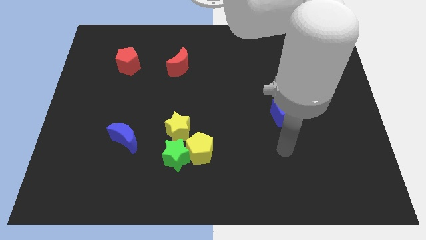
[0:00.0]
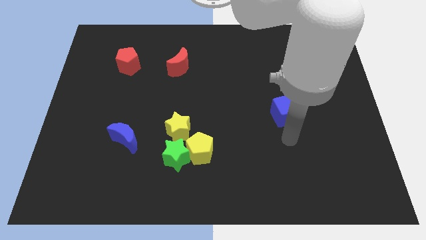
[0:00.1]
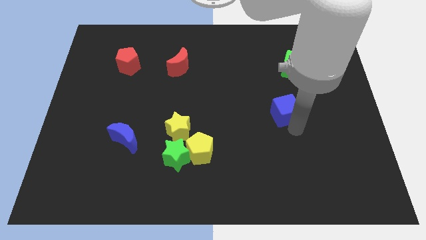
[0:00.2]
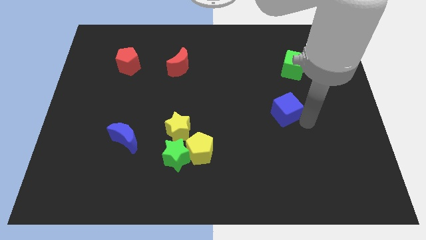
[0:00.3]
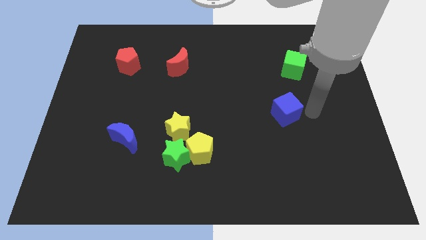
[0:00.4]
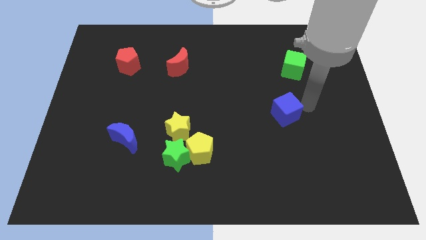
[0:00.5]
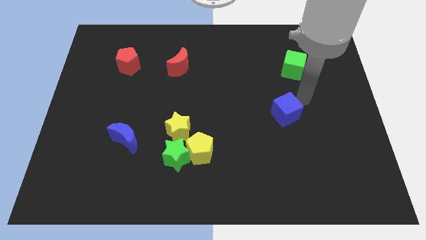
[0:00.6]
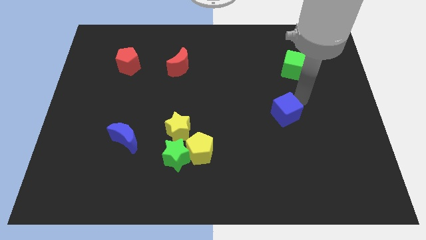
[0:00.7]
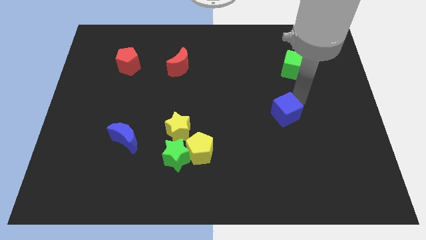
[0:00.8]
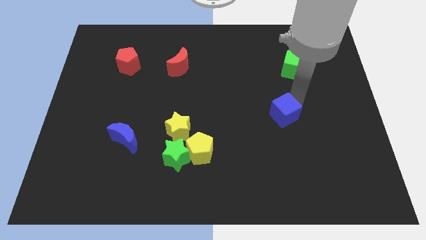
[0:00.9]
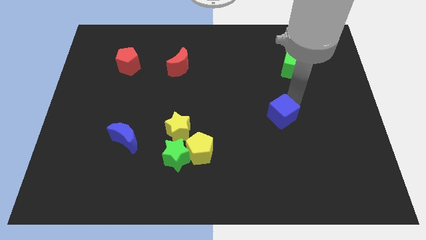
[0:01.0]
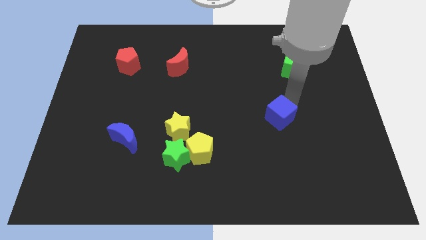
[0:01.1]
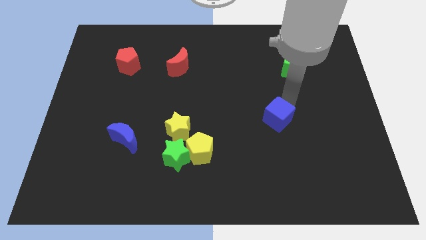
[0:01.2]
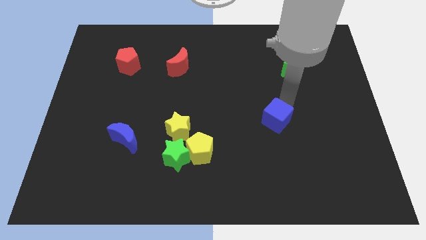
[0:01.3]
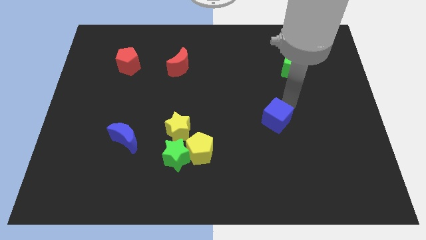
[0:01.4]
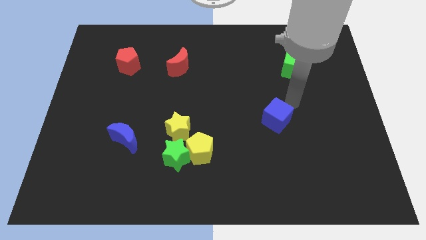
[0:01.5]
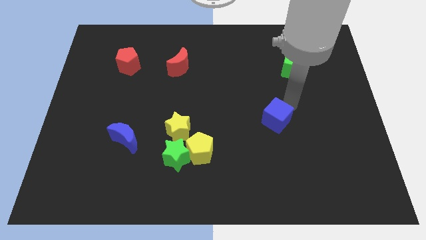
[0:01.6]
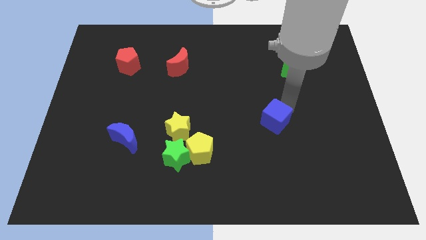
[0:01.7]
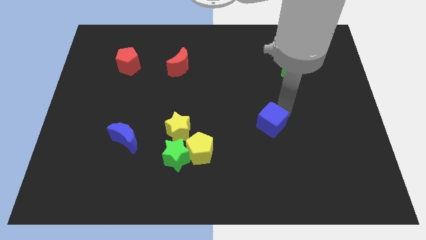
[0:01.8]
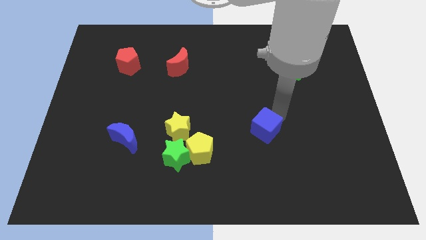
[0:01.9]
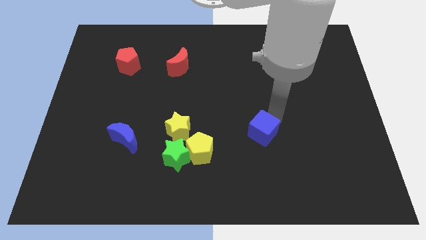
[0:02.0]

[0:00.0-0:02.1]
slightly move the blue cube downwards and then left

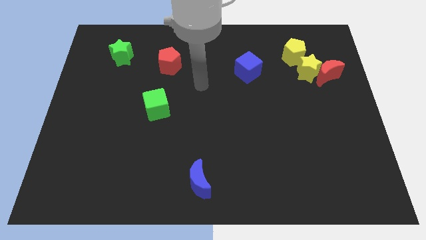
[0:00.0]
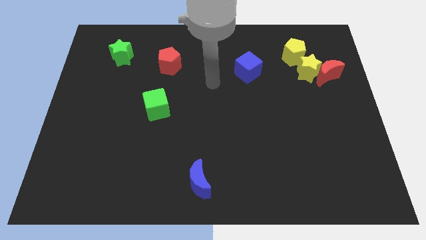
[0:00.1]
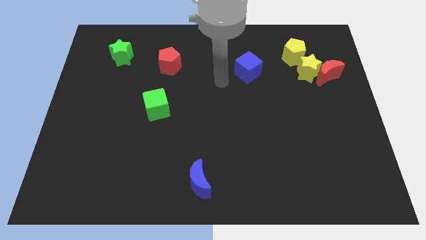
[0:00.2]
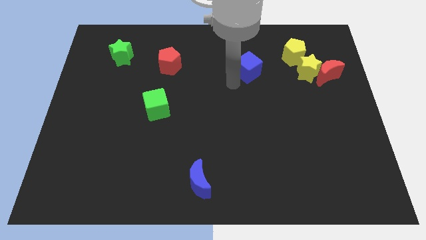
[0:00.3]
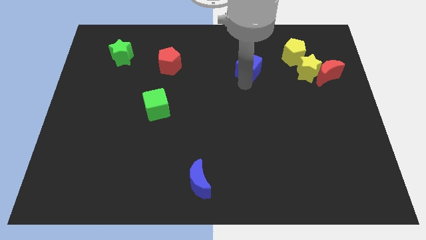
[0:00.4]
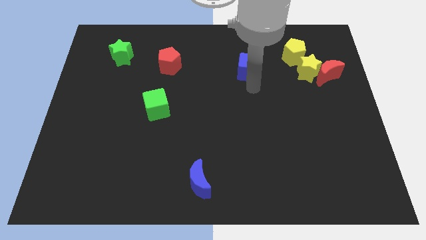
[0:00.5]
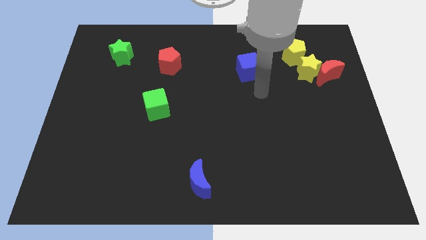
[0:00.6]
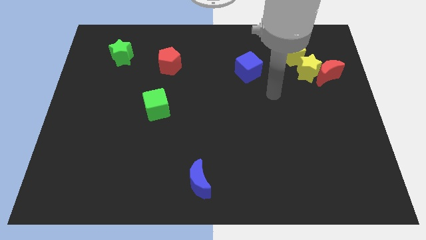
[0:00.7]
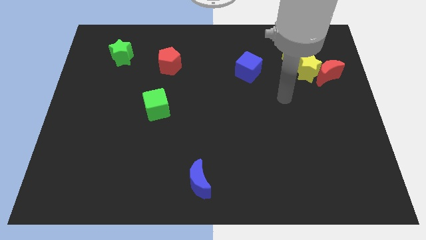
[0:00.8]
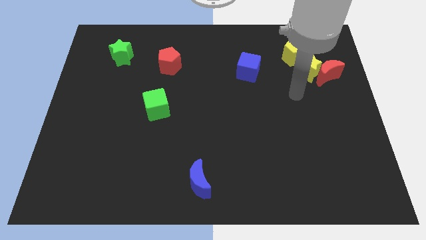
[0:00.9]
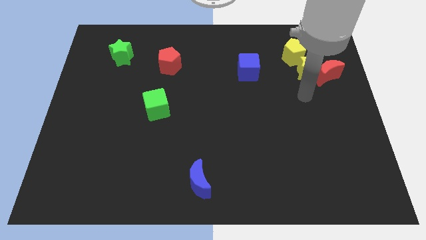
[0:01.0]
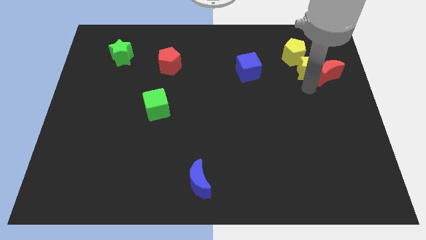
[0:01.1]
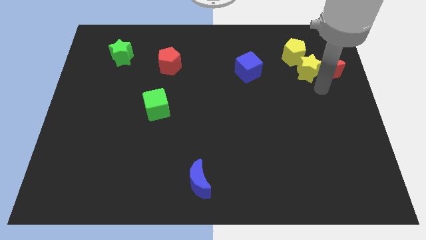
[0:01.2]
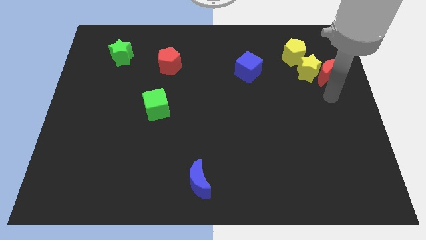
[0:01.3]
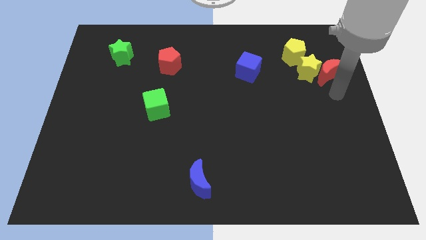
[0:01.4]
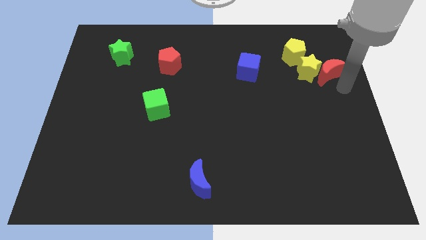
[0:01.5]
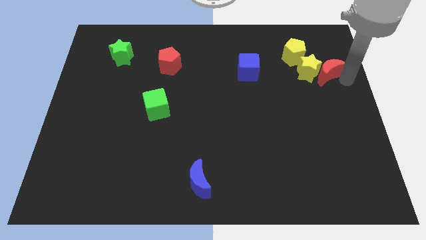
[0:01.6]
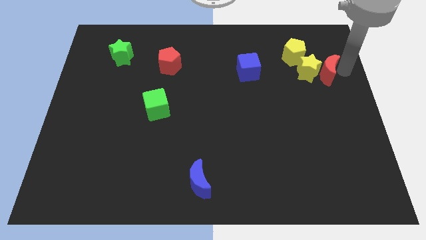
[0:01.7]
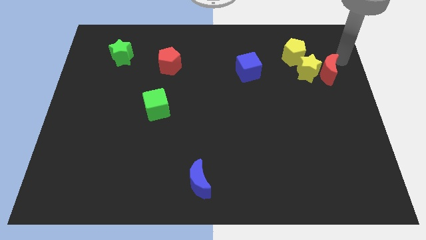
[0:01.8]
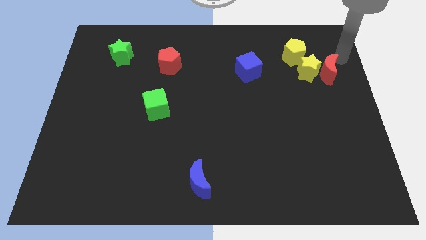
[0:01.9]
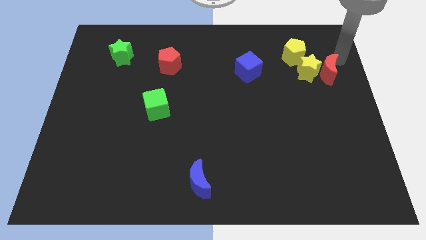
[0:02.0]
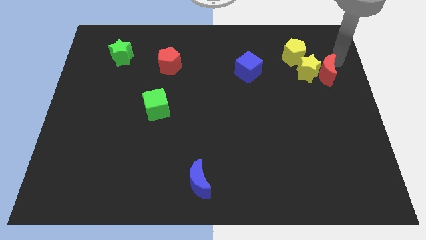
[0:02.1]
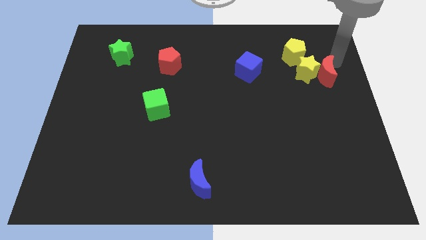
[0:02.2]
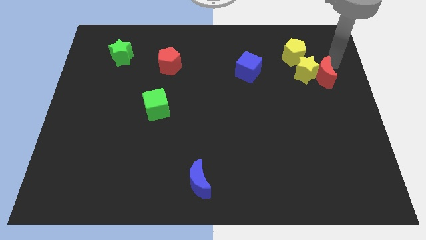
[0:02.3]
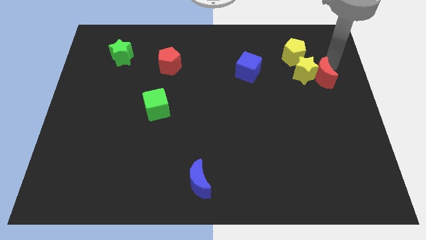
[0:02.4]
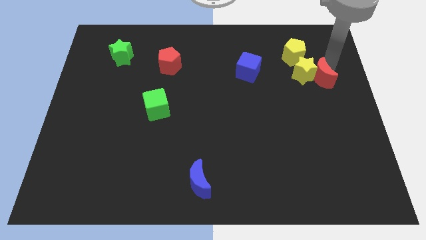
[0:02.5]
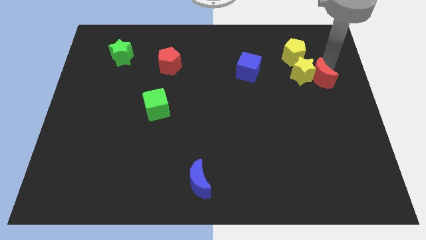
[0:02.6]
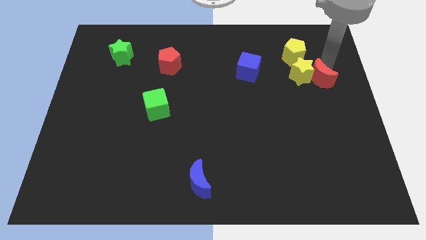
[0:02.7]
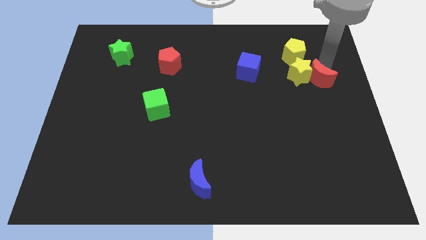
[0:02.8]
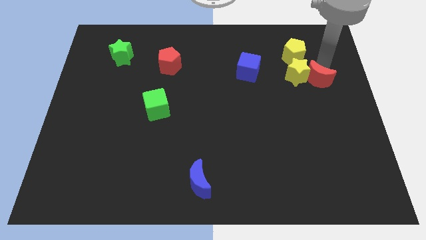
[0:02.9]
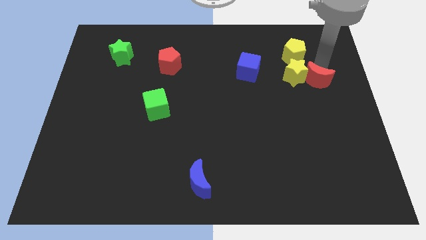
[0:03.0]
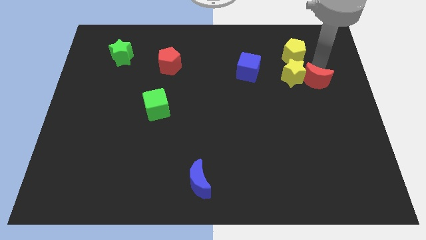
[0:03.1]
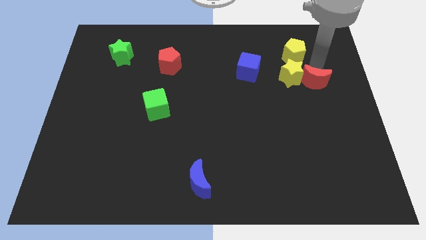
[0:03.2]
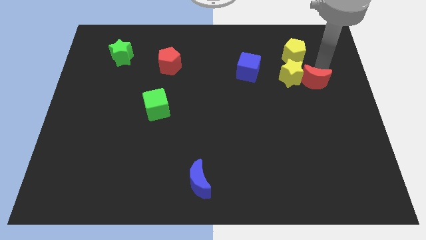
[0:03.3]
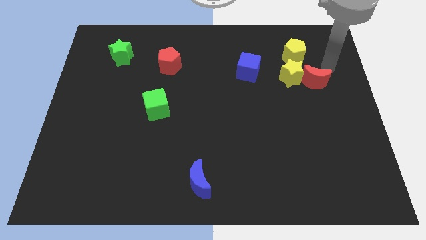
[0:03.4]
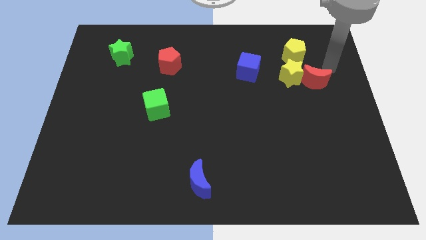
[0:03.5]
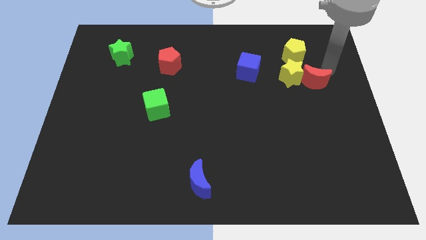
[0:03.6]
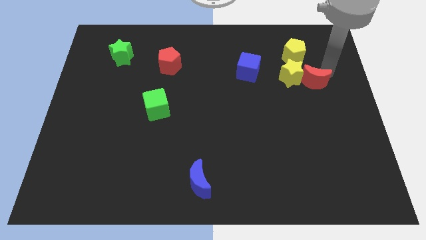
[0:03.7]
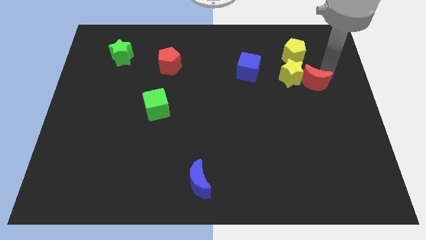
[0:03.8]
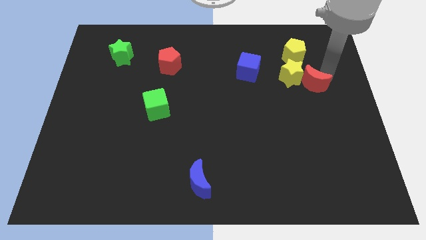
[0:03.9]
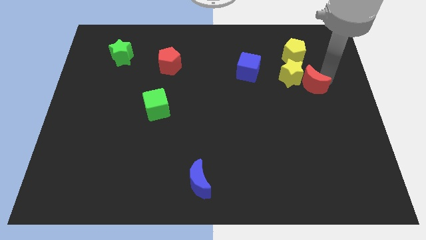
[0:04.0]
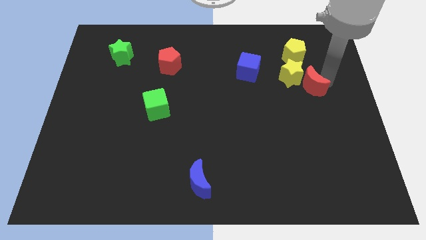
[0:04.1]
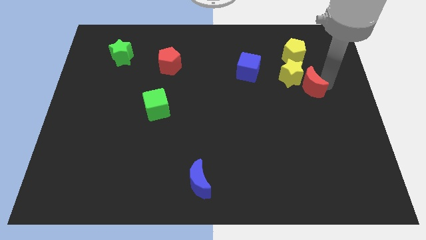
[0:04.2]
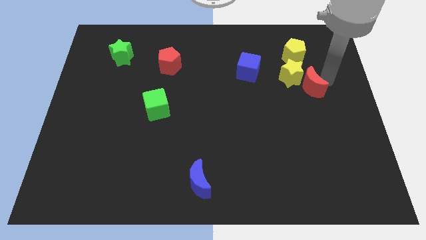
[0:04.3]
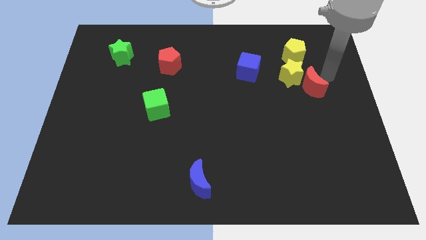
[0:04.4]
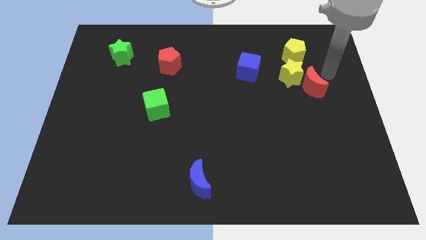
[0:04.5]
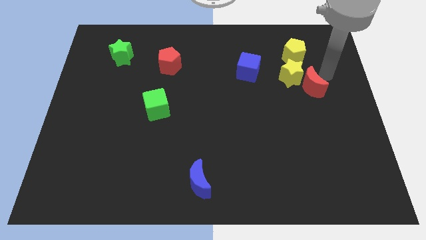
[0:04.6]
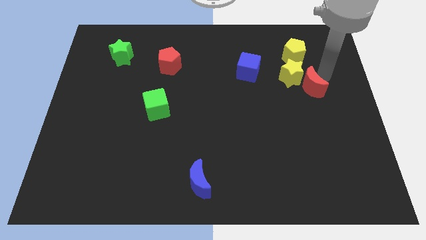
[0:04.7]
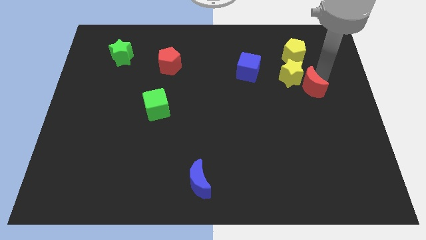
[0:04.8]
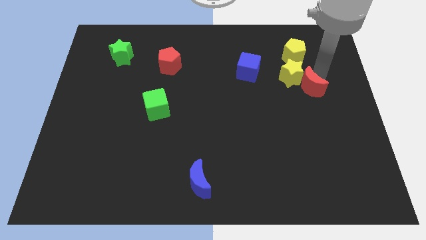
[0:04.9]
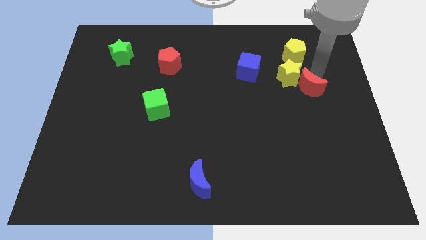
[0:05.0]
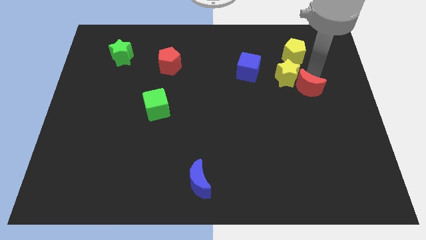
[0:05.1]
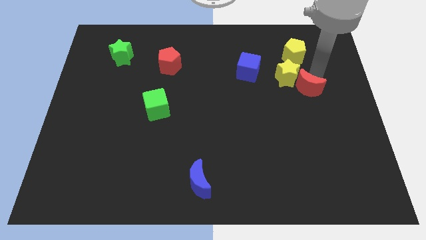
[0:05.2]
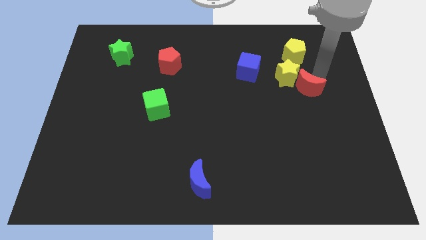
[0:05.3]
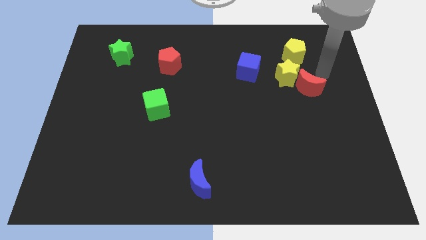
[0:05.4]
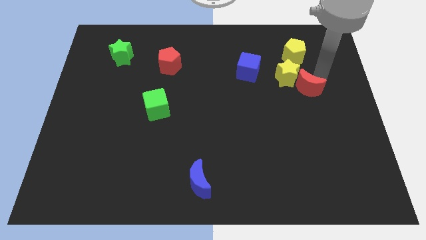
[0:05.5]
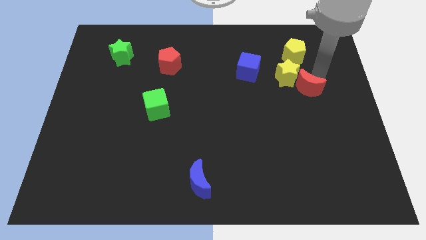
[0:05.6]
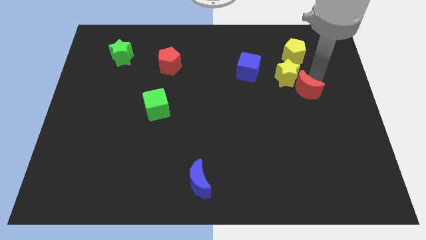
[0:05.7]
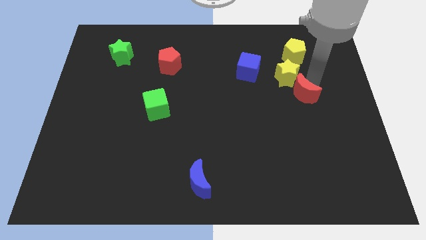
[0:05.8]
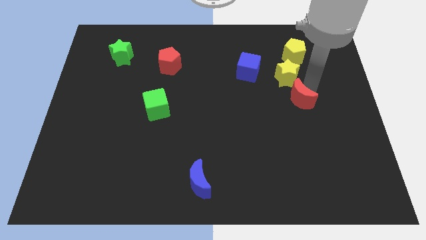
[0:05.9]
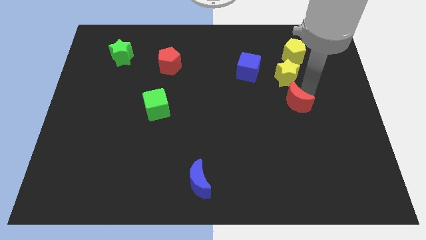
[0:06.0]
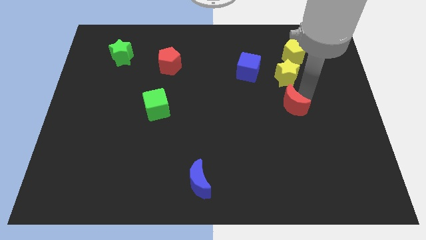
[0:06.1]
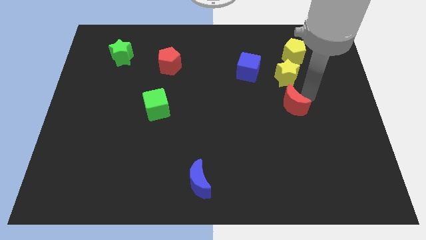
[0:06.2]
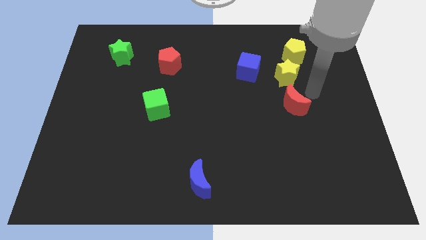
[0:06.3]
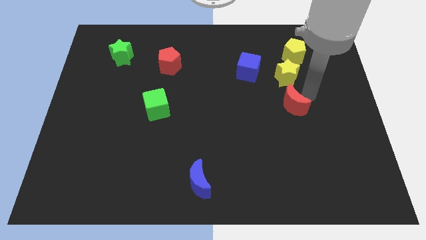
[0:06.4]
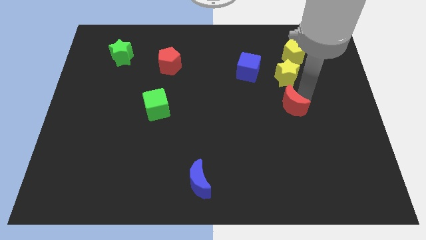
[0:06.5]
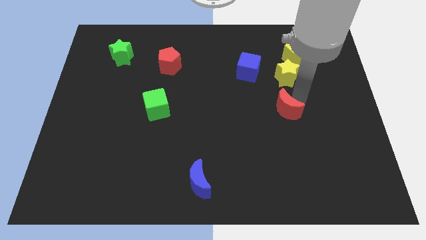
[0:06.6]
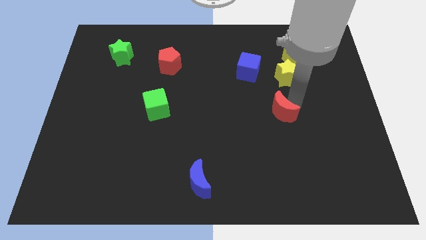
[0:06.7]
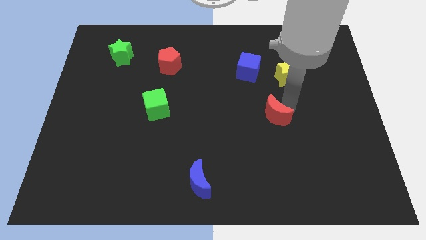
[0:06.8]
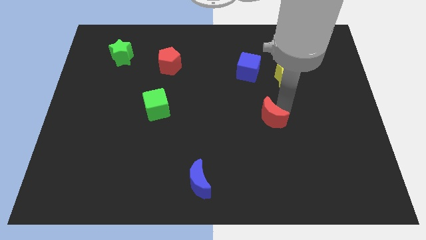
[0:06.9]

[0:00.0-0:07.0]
push the red moon down and to the left
